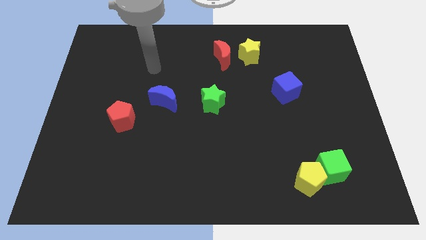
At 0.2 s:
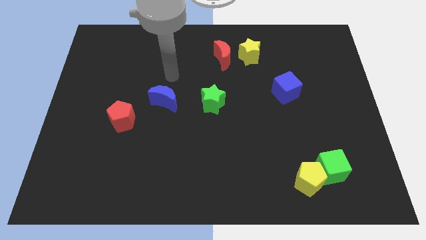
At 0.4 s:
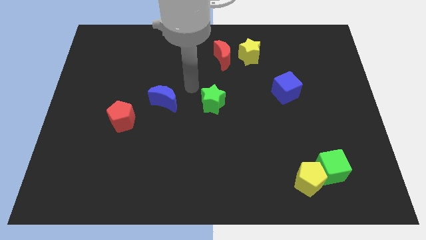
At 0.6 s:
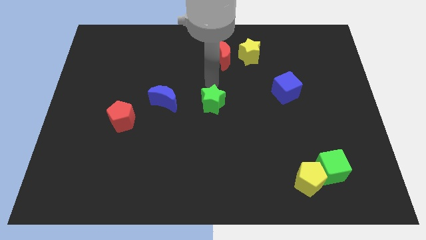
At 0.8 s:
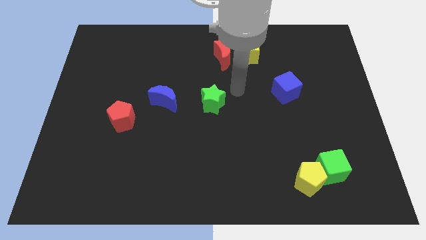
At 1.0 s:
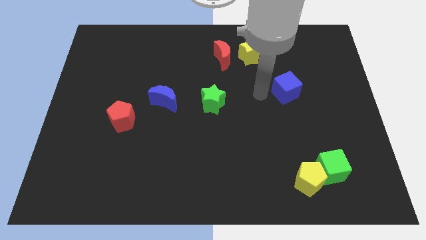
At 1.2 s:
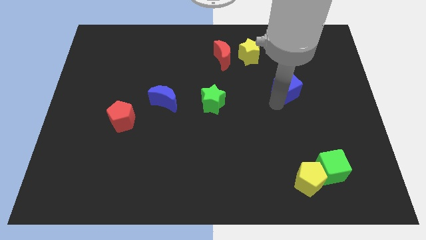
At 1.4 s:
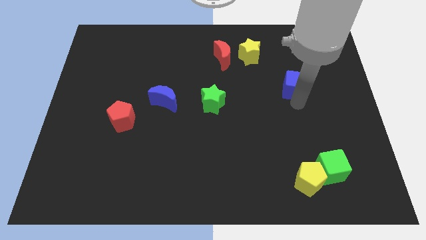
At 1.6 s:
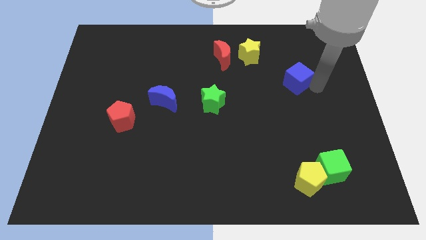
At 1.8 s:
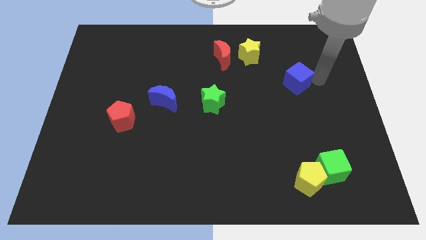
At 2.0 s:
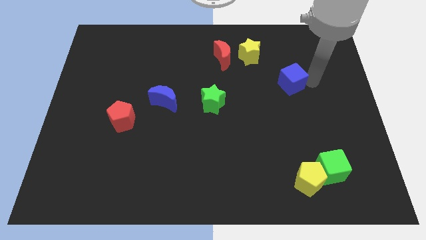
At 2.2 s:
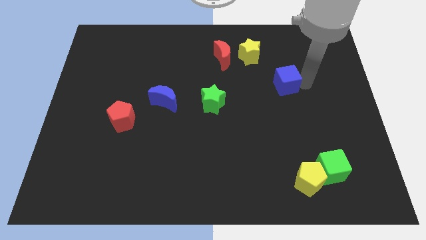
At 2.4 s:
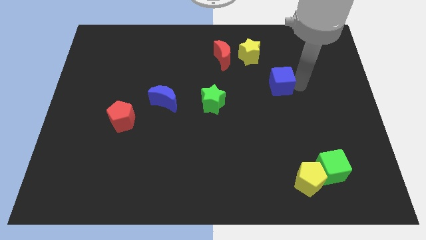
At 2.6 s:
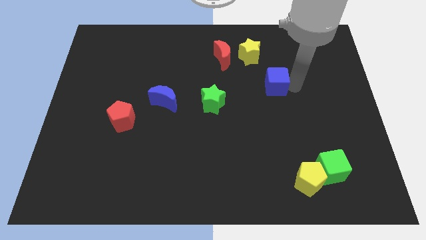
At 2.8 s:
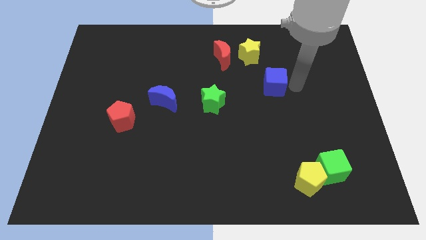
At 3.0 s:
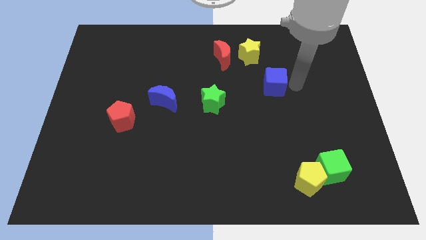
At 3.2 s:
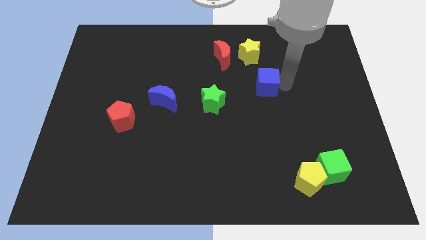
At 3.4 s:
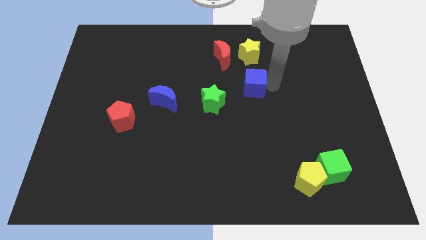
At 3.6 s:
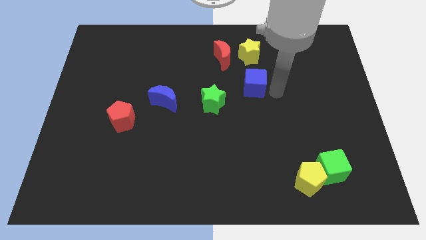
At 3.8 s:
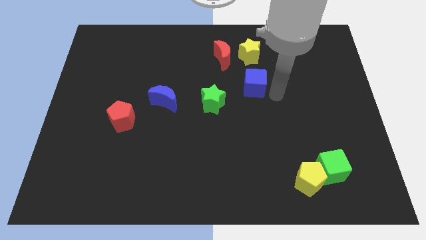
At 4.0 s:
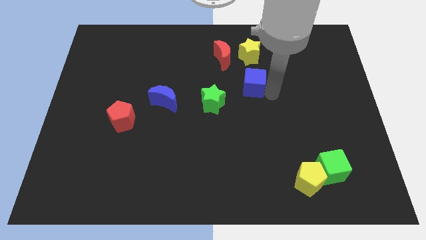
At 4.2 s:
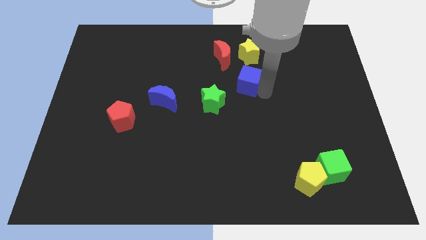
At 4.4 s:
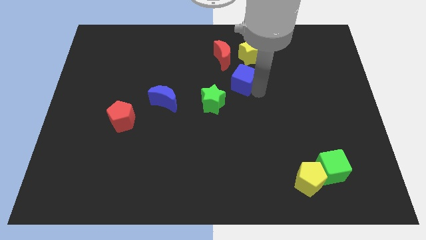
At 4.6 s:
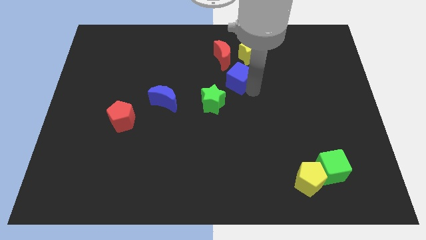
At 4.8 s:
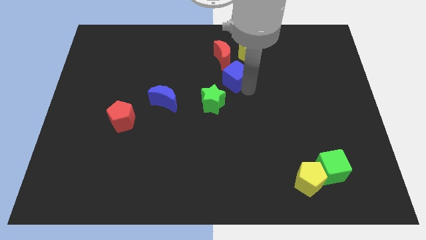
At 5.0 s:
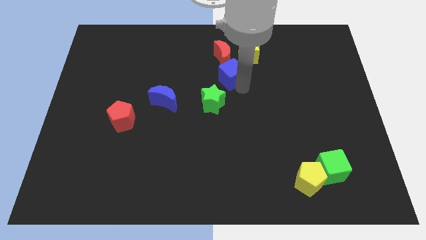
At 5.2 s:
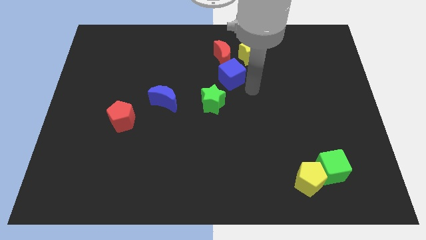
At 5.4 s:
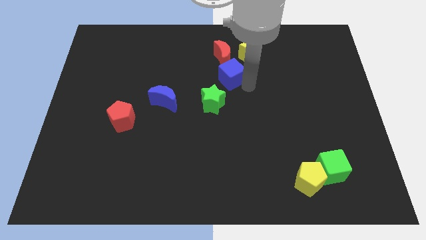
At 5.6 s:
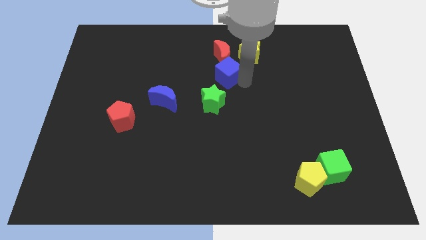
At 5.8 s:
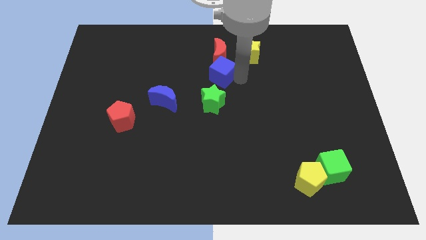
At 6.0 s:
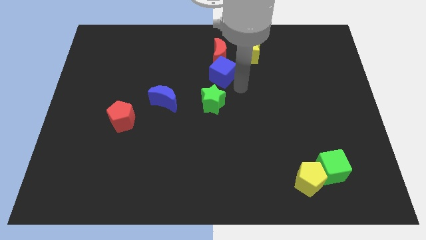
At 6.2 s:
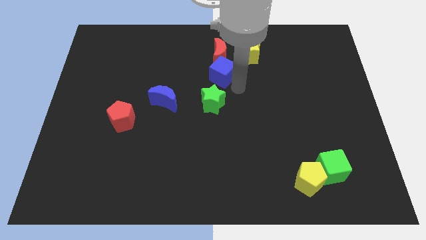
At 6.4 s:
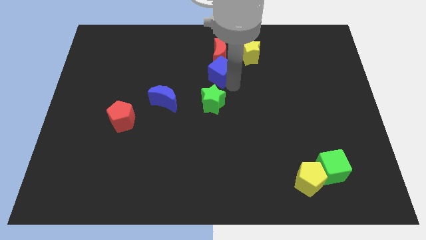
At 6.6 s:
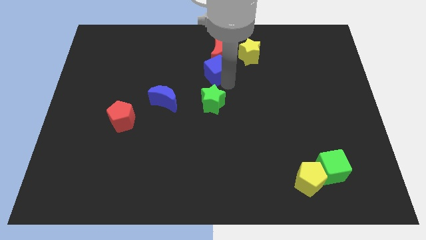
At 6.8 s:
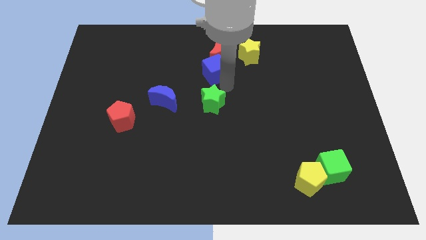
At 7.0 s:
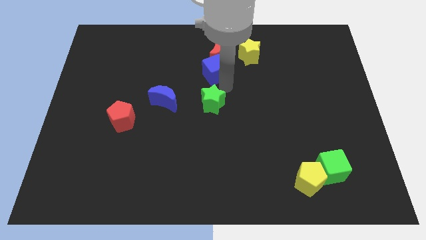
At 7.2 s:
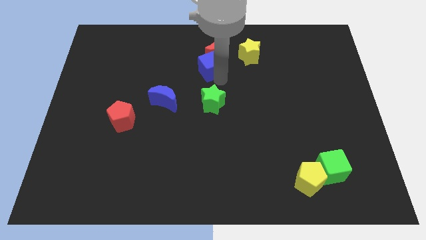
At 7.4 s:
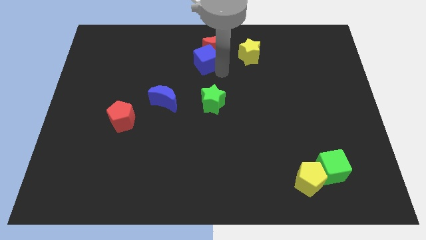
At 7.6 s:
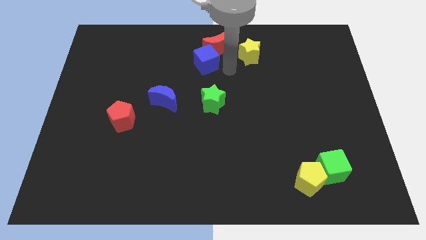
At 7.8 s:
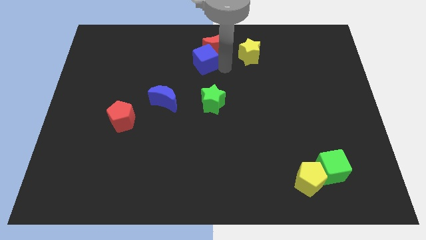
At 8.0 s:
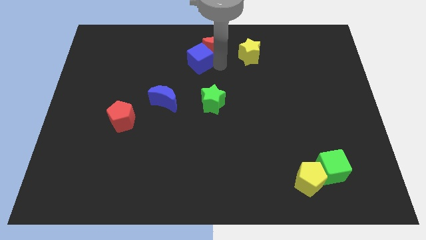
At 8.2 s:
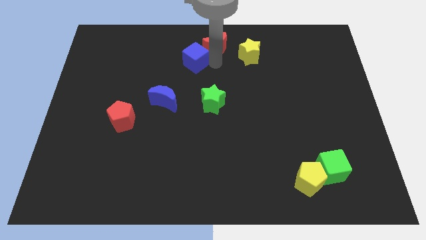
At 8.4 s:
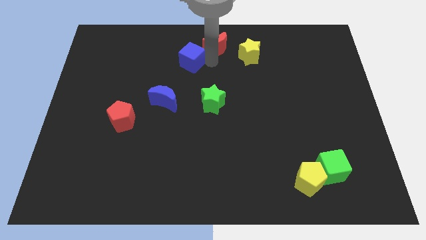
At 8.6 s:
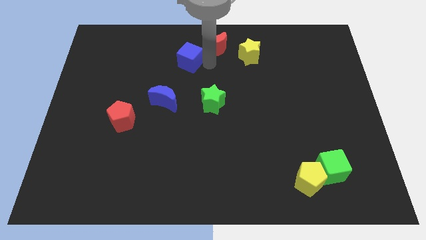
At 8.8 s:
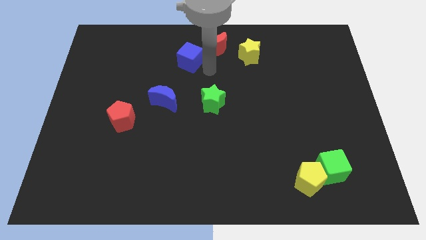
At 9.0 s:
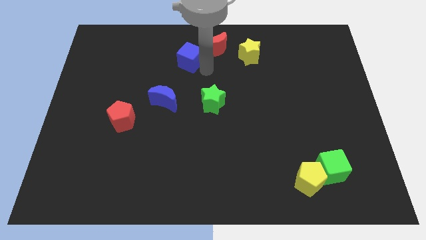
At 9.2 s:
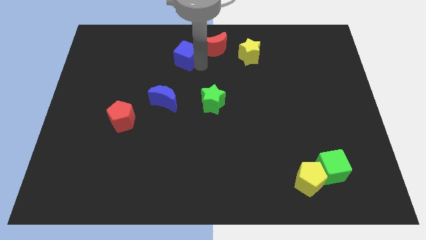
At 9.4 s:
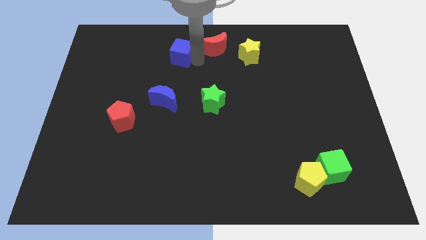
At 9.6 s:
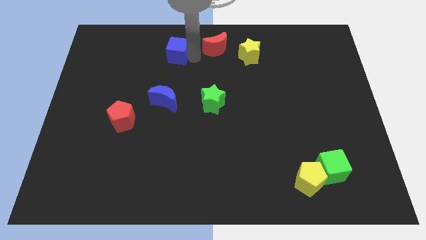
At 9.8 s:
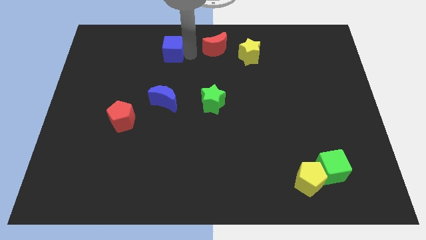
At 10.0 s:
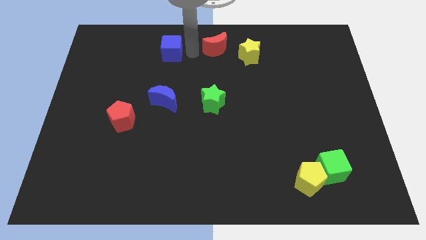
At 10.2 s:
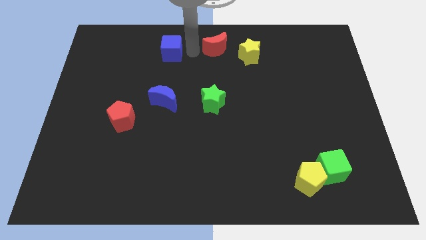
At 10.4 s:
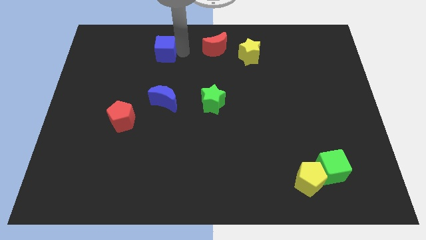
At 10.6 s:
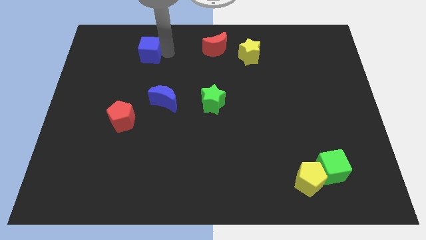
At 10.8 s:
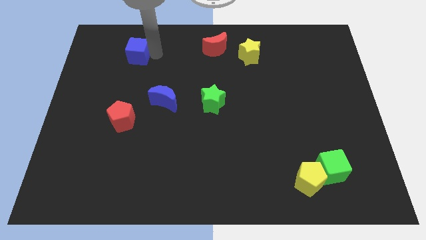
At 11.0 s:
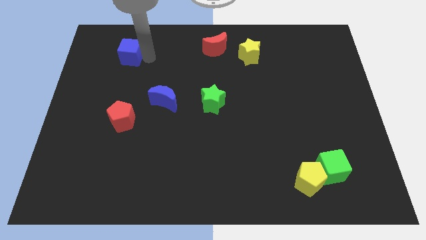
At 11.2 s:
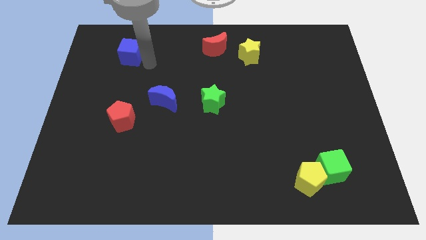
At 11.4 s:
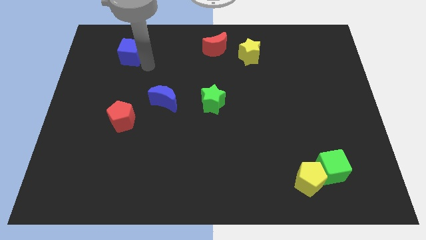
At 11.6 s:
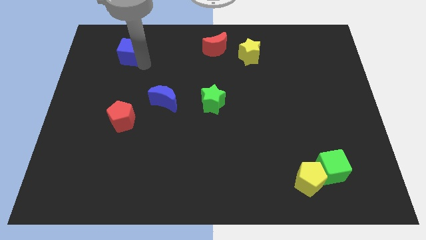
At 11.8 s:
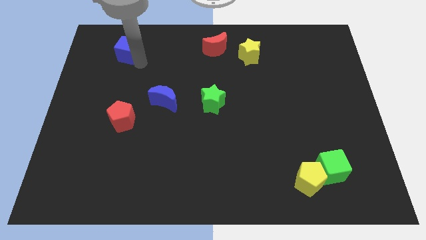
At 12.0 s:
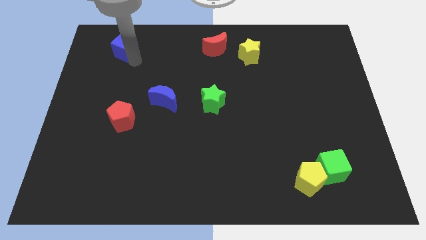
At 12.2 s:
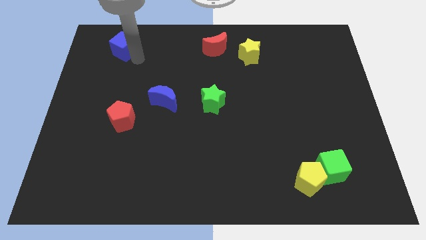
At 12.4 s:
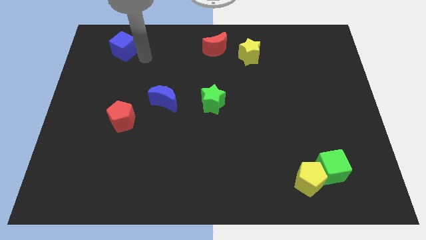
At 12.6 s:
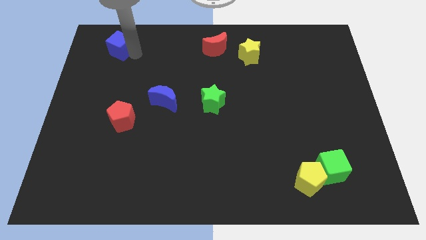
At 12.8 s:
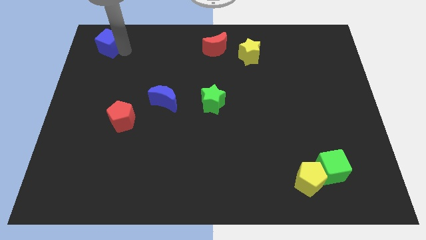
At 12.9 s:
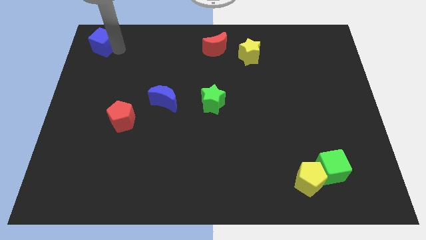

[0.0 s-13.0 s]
put the blue cube to the top left

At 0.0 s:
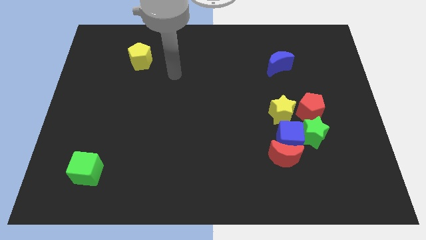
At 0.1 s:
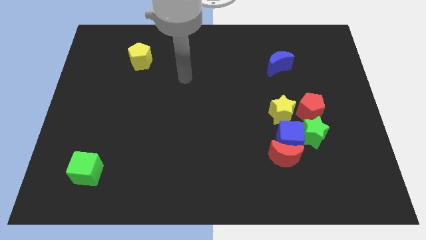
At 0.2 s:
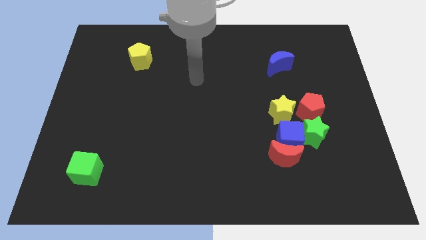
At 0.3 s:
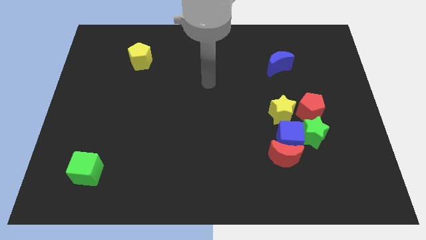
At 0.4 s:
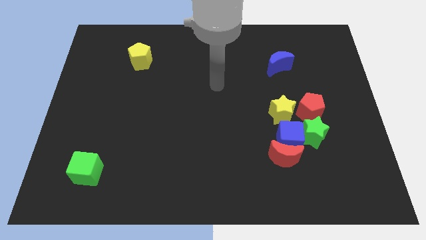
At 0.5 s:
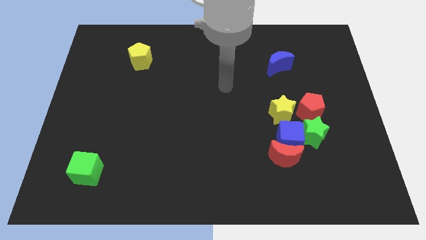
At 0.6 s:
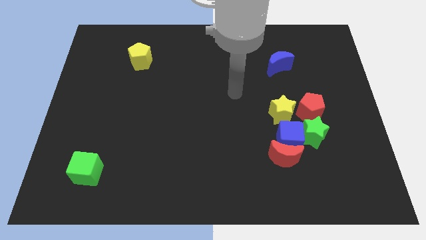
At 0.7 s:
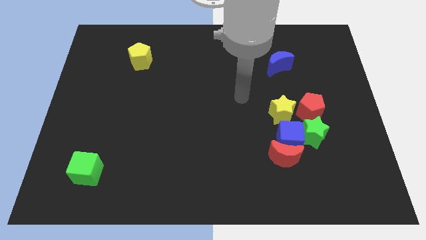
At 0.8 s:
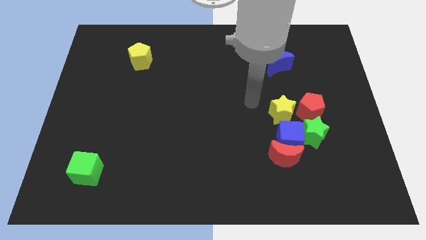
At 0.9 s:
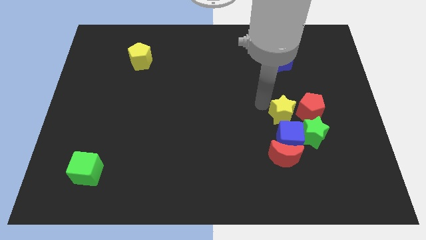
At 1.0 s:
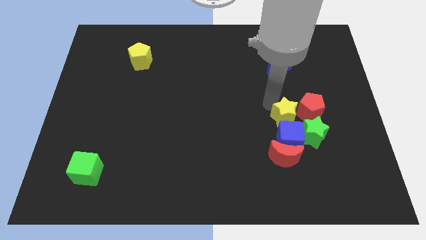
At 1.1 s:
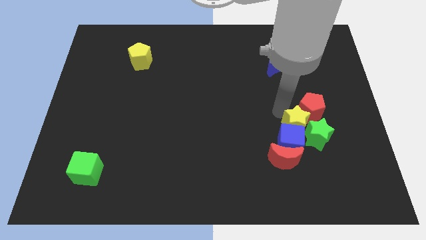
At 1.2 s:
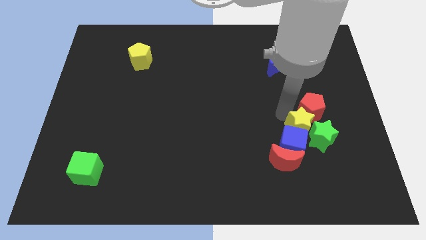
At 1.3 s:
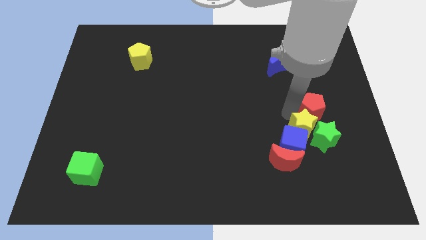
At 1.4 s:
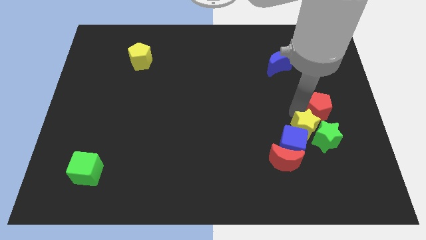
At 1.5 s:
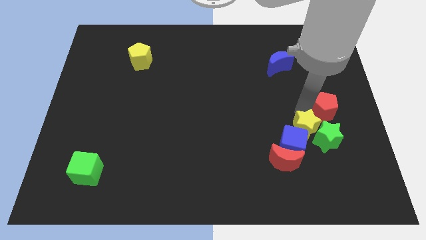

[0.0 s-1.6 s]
put the red pentagon to the right side of the board
